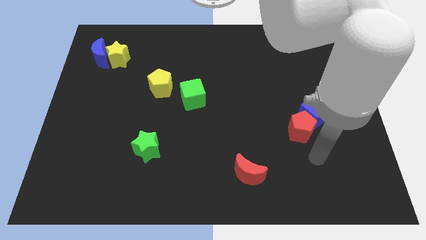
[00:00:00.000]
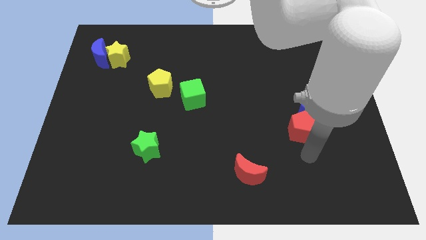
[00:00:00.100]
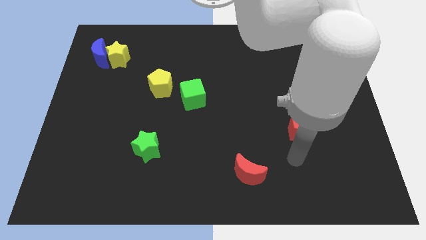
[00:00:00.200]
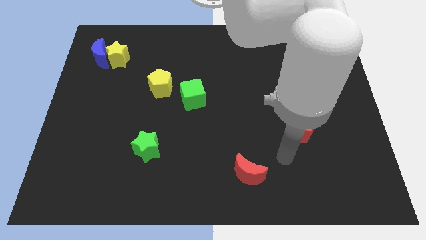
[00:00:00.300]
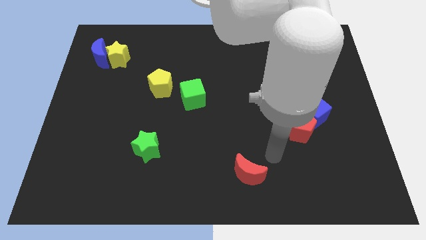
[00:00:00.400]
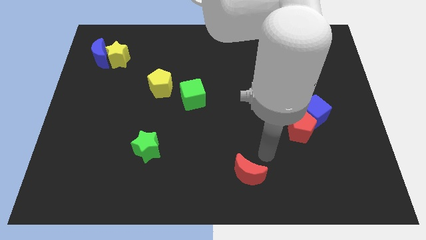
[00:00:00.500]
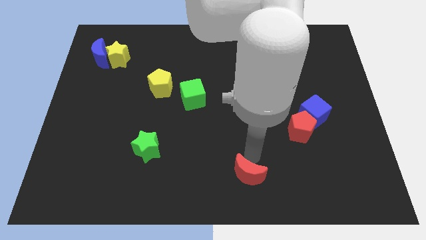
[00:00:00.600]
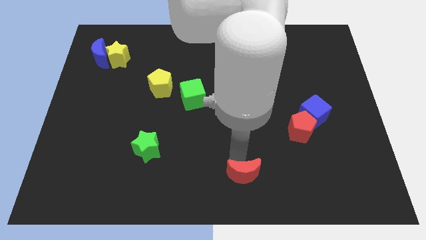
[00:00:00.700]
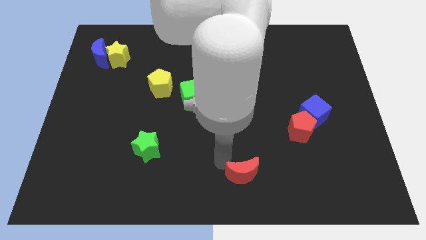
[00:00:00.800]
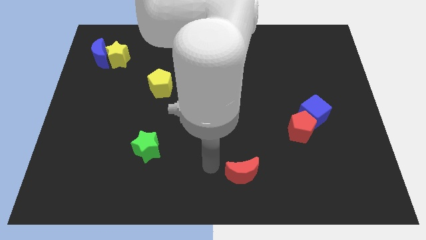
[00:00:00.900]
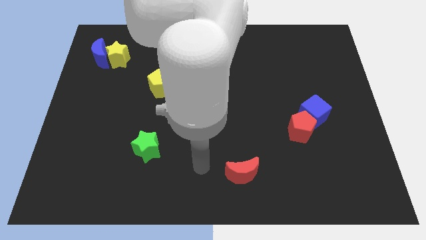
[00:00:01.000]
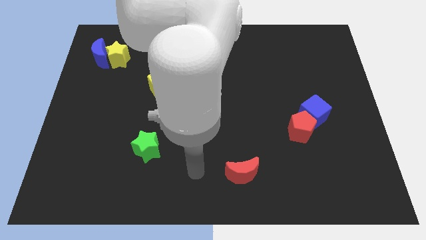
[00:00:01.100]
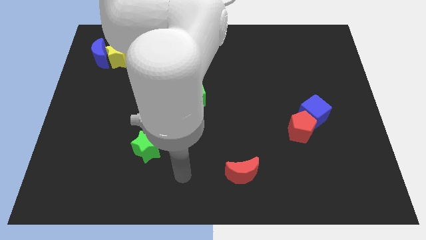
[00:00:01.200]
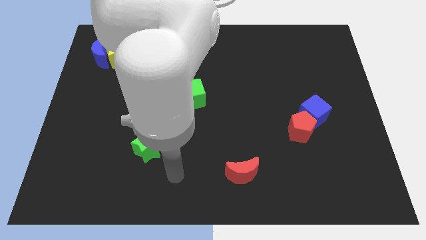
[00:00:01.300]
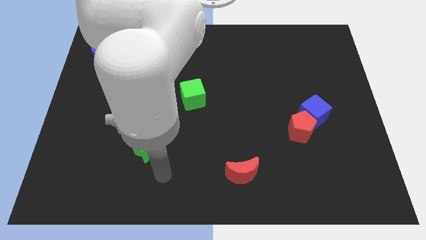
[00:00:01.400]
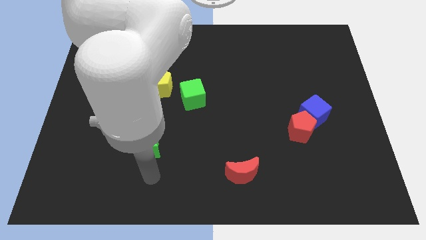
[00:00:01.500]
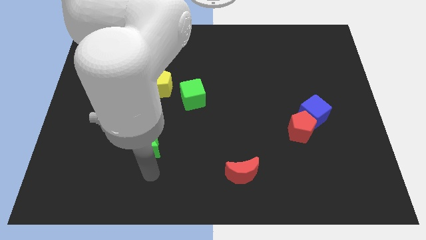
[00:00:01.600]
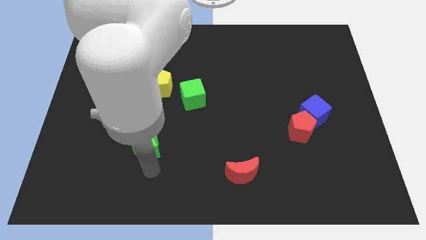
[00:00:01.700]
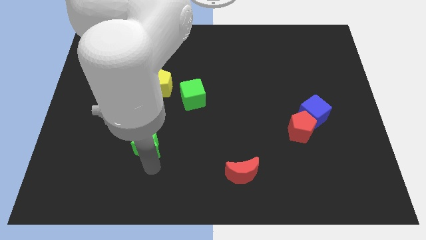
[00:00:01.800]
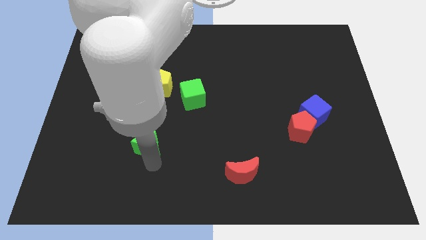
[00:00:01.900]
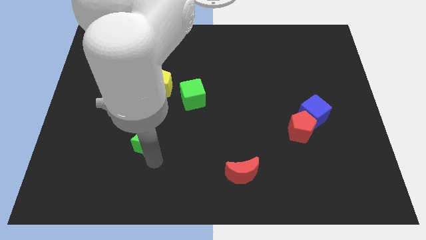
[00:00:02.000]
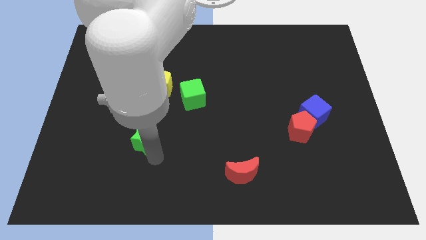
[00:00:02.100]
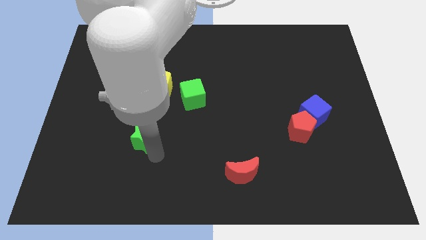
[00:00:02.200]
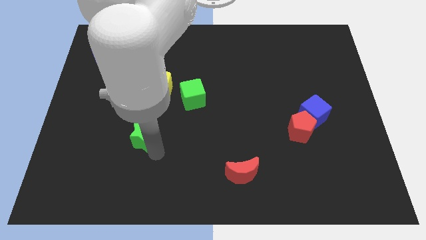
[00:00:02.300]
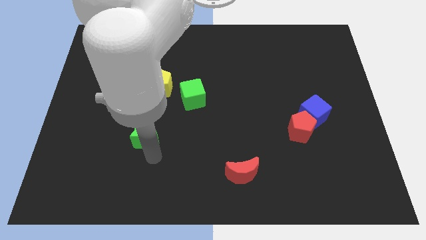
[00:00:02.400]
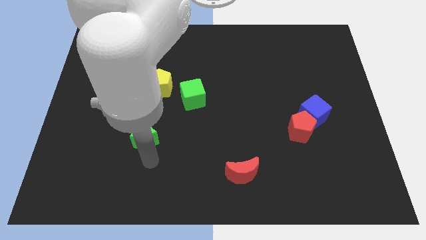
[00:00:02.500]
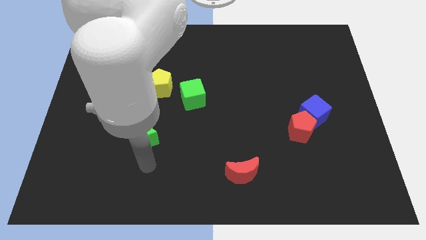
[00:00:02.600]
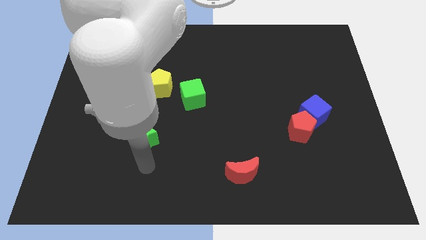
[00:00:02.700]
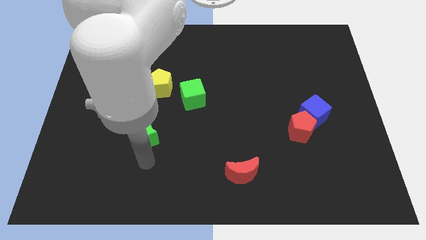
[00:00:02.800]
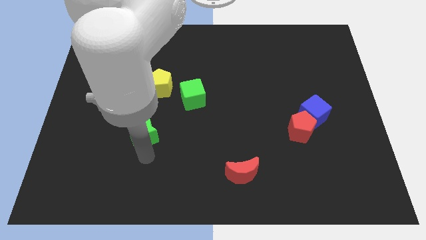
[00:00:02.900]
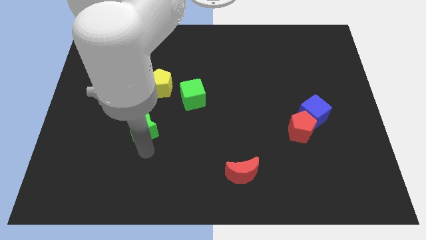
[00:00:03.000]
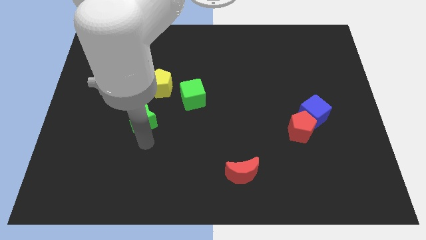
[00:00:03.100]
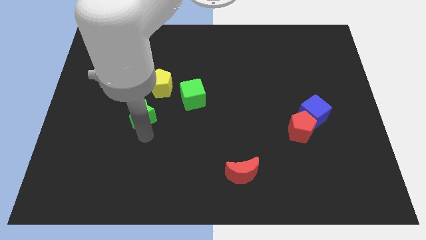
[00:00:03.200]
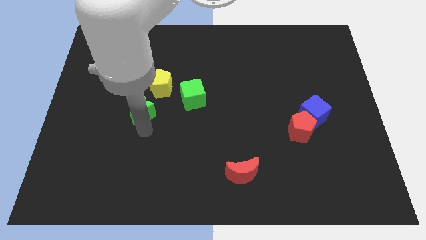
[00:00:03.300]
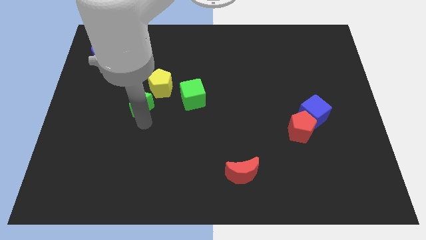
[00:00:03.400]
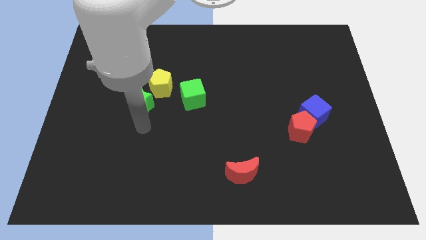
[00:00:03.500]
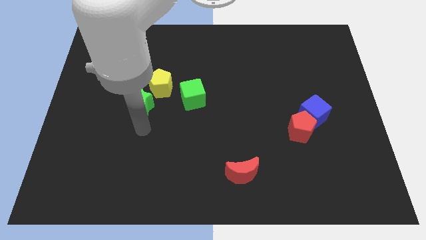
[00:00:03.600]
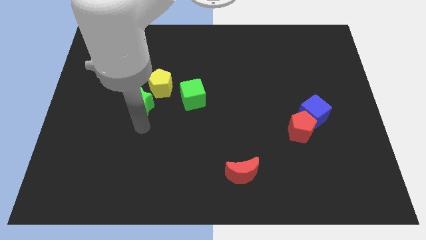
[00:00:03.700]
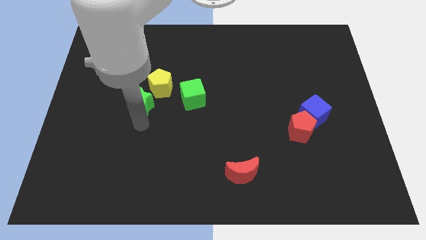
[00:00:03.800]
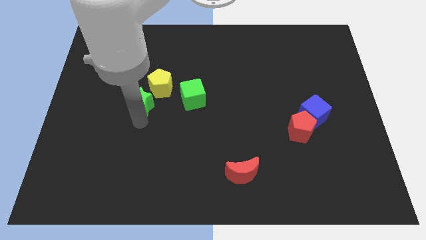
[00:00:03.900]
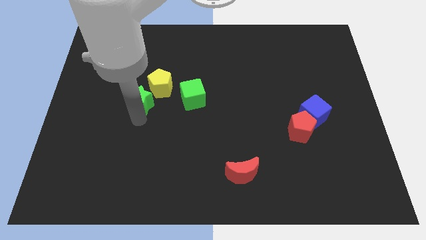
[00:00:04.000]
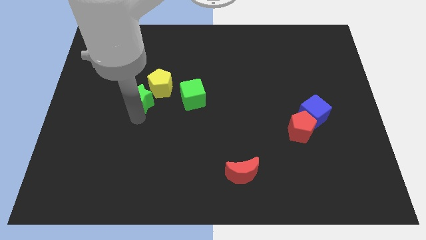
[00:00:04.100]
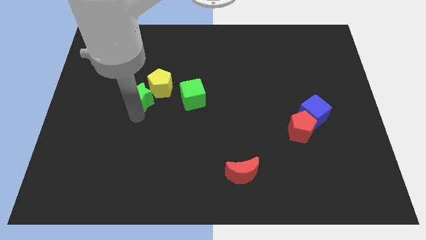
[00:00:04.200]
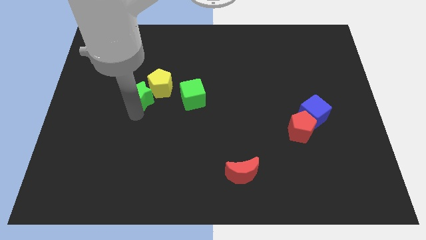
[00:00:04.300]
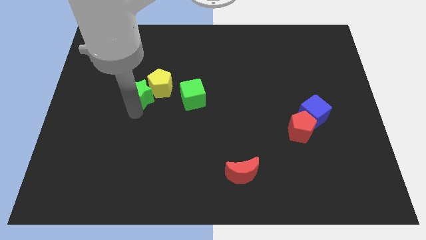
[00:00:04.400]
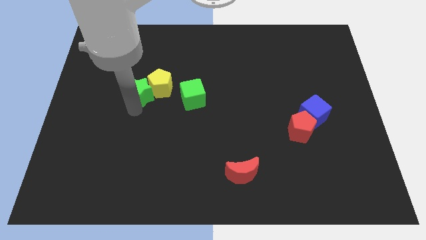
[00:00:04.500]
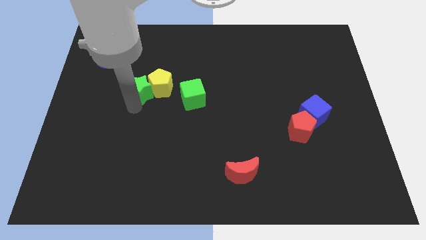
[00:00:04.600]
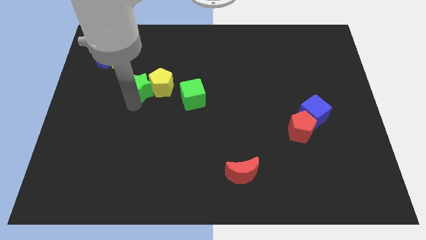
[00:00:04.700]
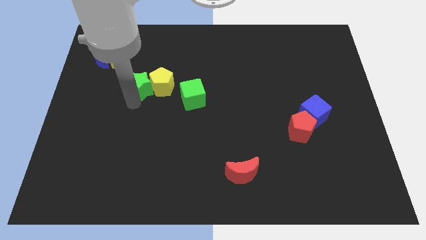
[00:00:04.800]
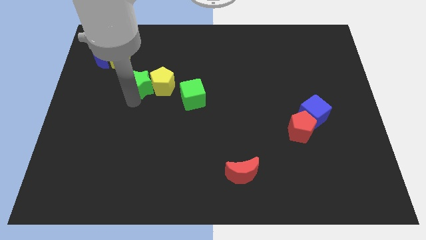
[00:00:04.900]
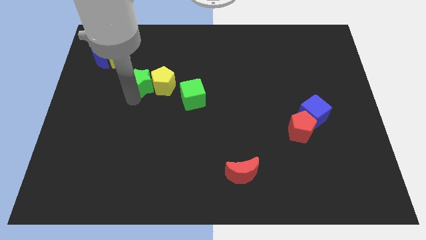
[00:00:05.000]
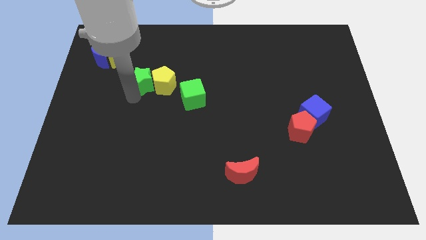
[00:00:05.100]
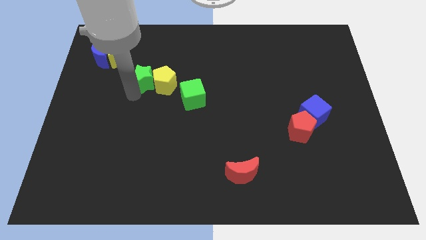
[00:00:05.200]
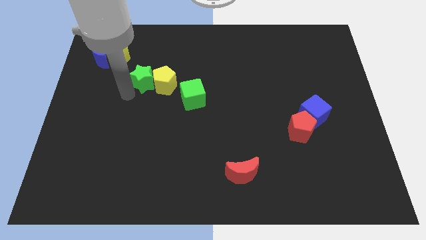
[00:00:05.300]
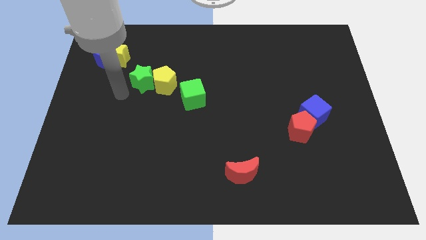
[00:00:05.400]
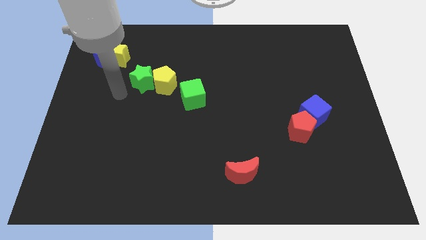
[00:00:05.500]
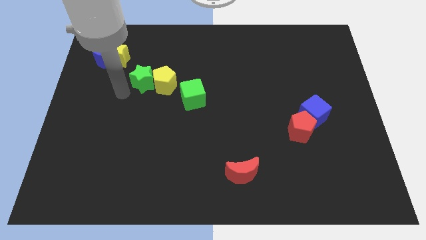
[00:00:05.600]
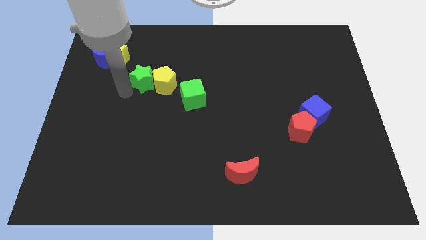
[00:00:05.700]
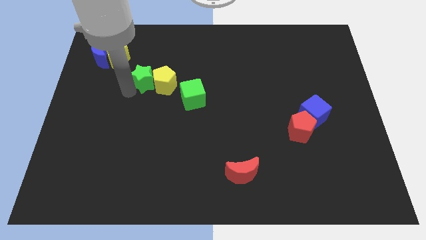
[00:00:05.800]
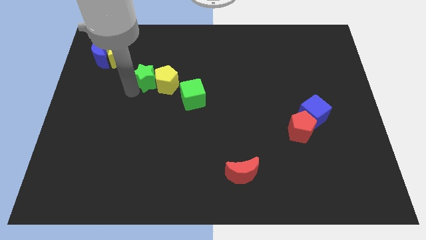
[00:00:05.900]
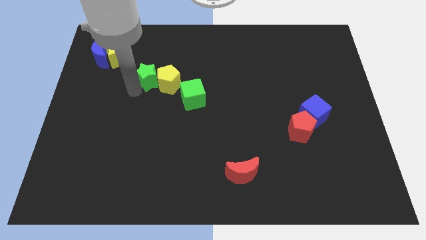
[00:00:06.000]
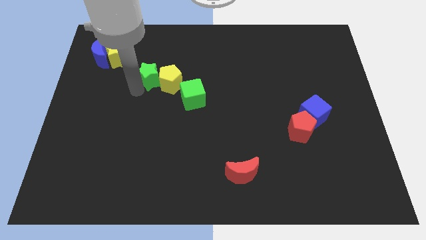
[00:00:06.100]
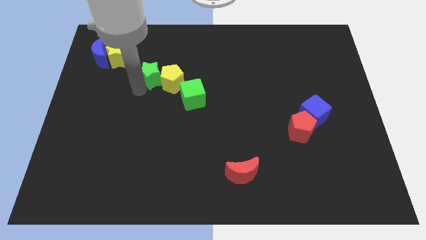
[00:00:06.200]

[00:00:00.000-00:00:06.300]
slide the green star to the top left of the green cube

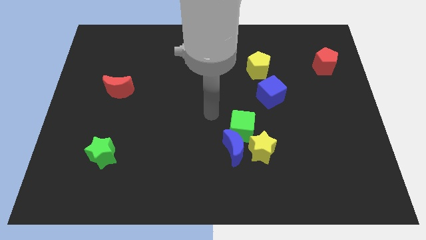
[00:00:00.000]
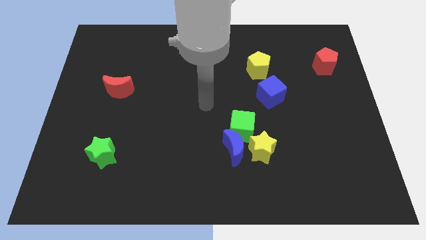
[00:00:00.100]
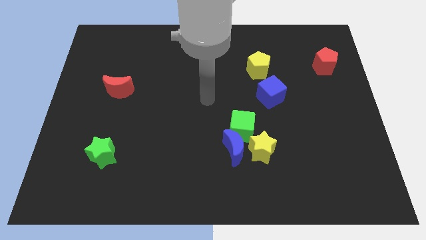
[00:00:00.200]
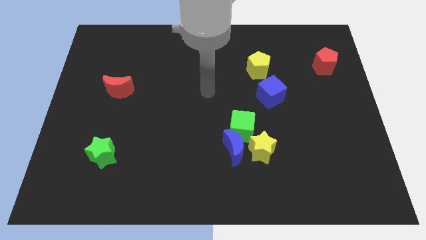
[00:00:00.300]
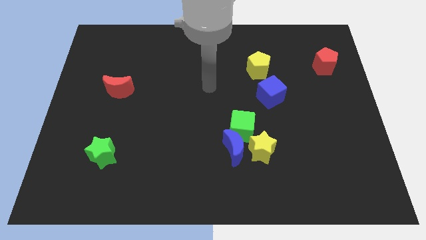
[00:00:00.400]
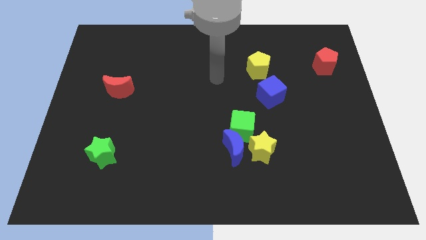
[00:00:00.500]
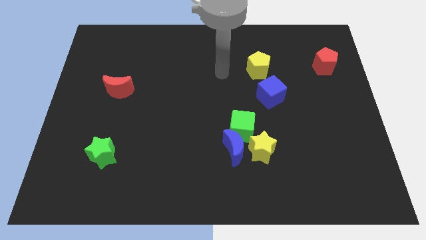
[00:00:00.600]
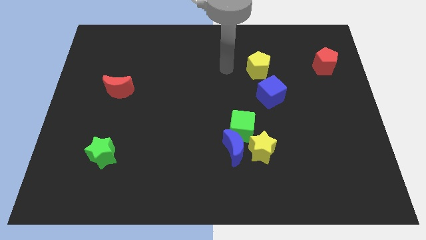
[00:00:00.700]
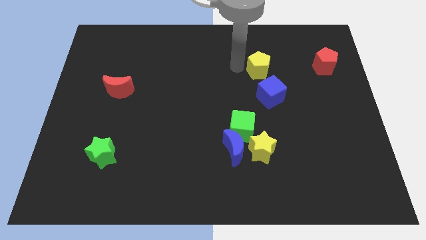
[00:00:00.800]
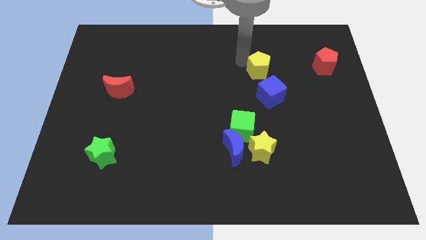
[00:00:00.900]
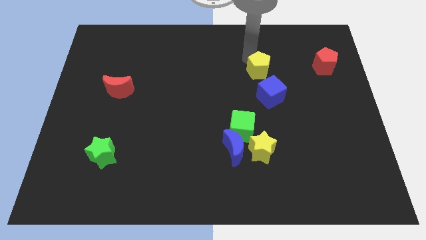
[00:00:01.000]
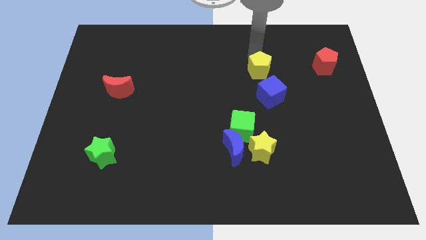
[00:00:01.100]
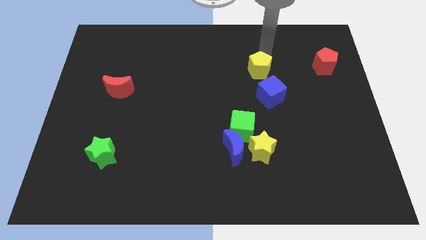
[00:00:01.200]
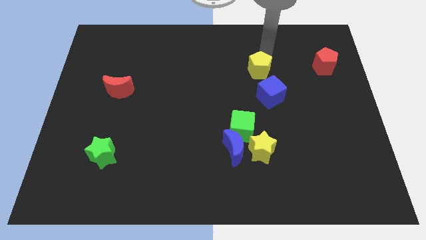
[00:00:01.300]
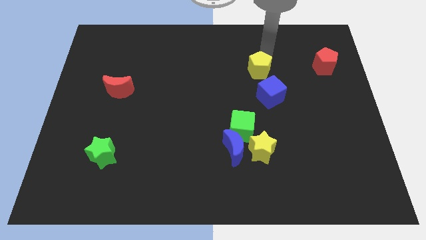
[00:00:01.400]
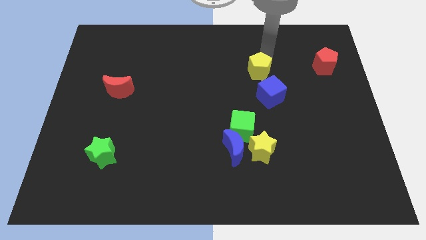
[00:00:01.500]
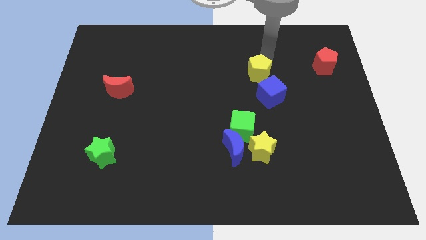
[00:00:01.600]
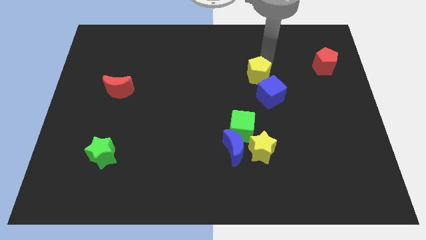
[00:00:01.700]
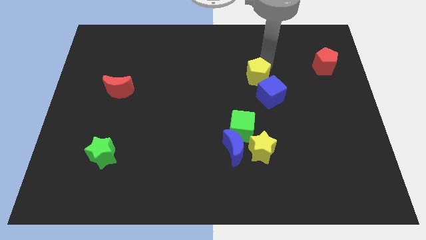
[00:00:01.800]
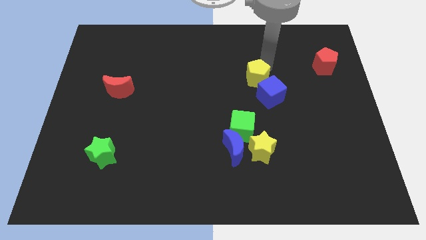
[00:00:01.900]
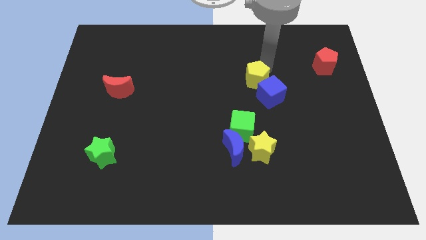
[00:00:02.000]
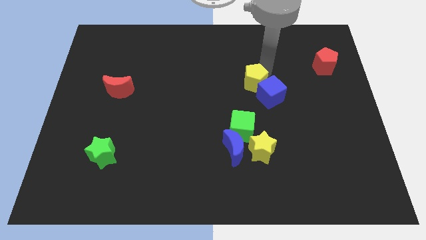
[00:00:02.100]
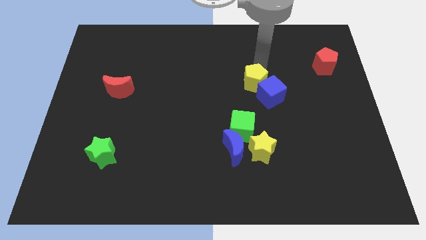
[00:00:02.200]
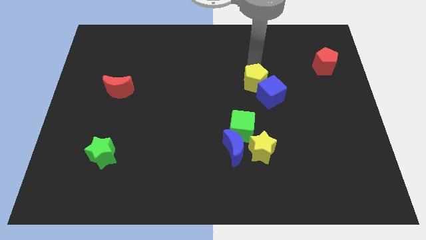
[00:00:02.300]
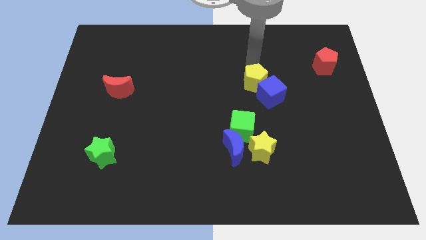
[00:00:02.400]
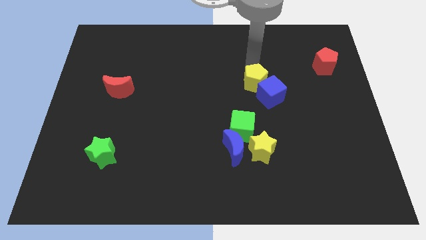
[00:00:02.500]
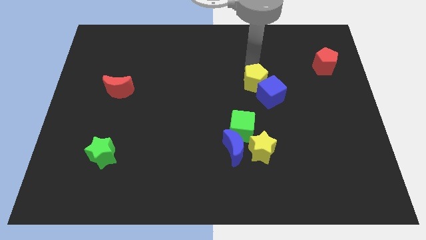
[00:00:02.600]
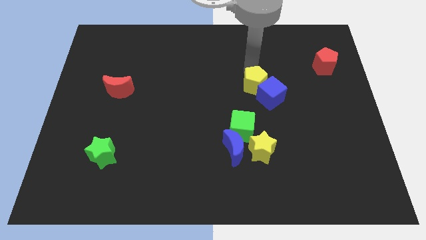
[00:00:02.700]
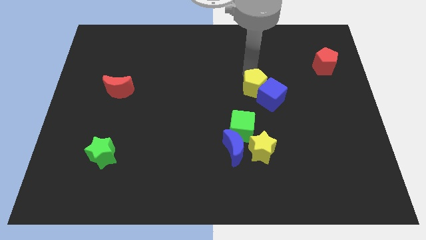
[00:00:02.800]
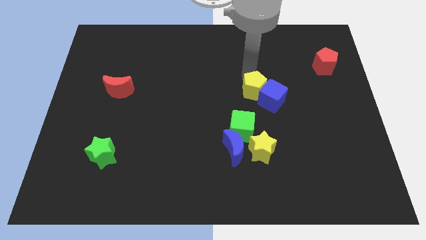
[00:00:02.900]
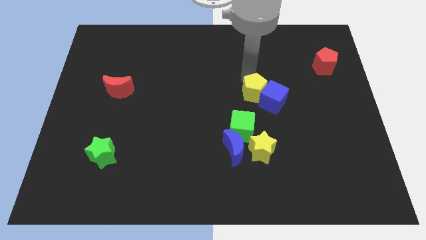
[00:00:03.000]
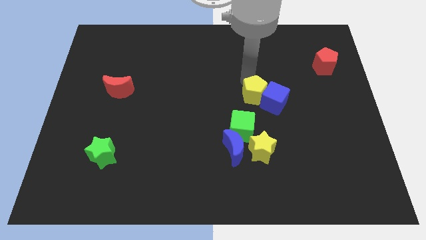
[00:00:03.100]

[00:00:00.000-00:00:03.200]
slide the yellow pentagon above the yellow star
